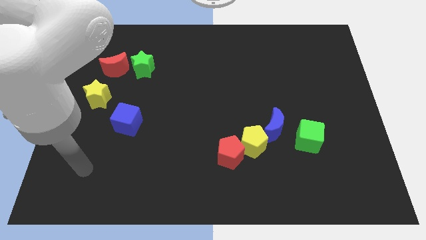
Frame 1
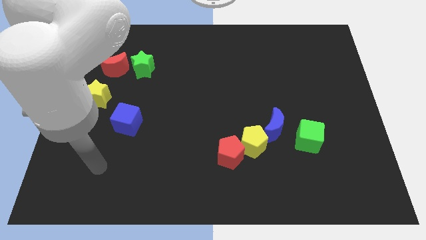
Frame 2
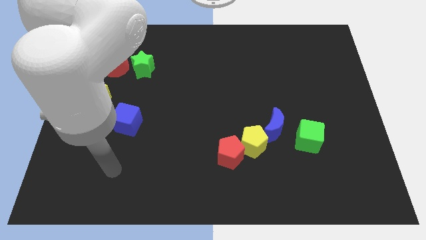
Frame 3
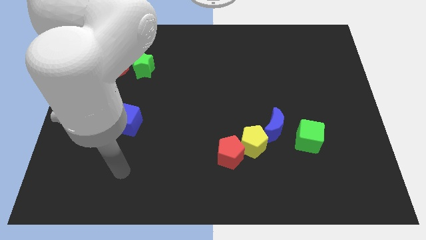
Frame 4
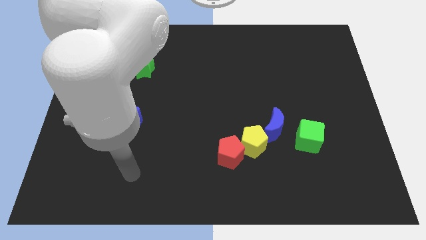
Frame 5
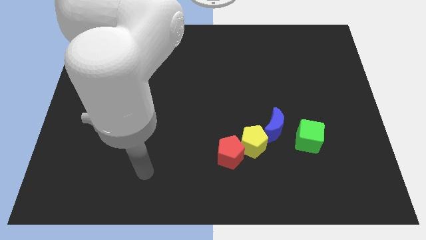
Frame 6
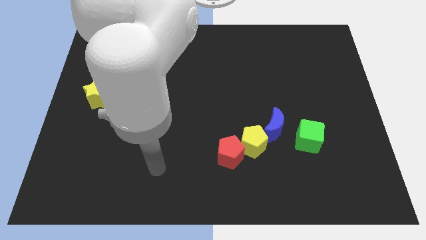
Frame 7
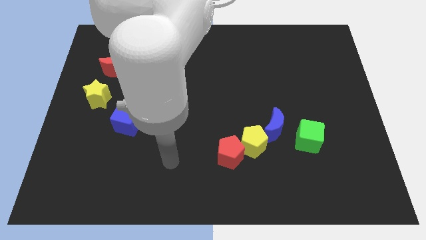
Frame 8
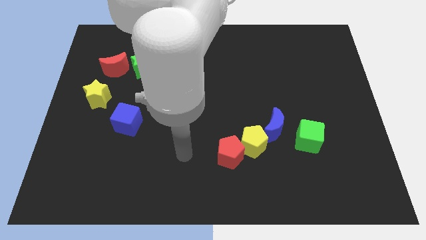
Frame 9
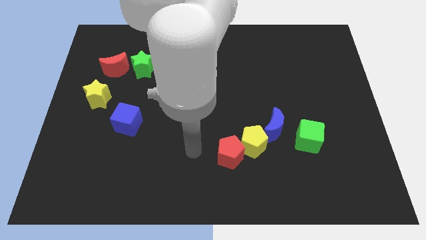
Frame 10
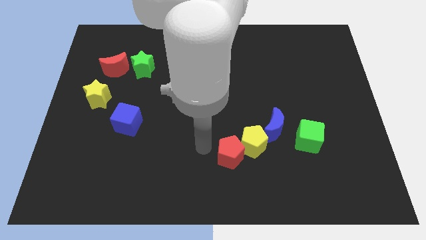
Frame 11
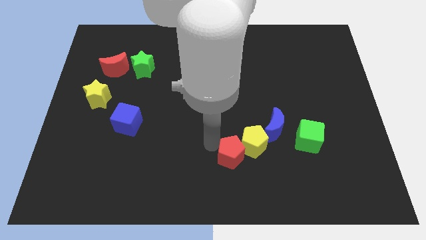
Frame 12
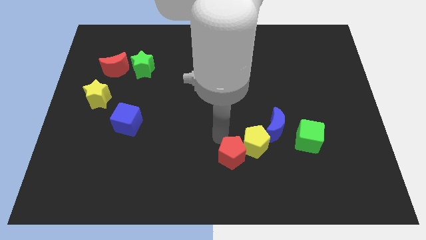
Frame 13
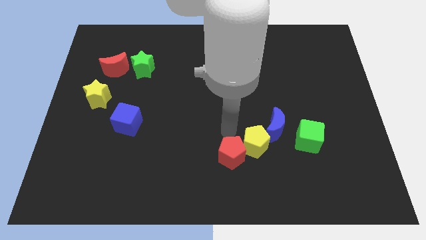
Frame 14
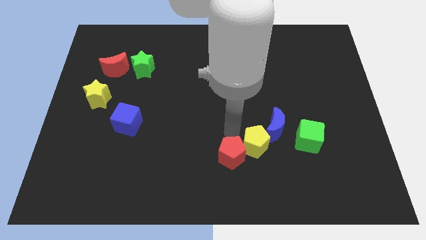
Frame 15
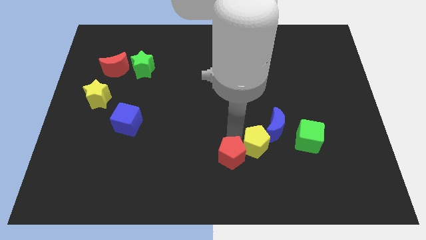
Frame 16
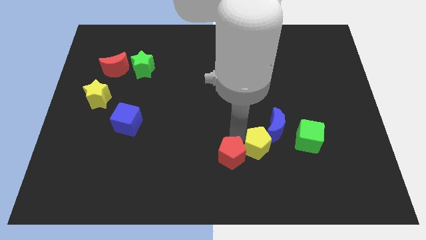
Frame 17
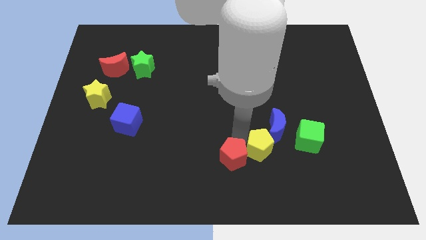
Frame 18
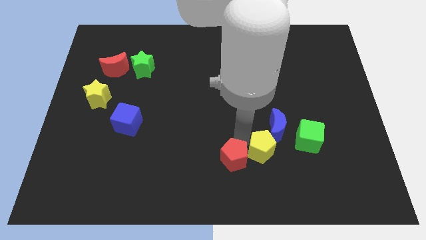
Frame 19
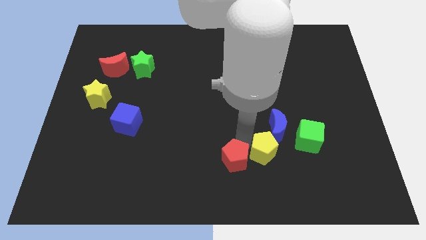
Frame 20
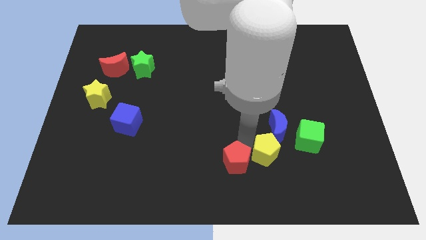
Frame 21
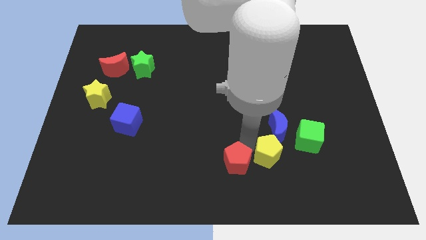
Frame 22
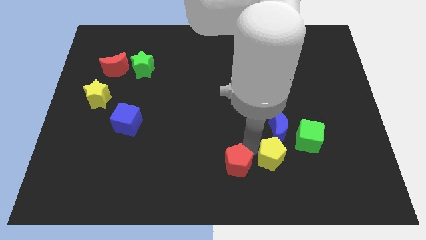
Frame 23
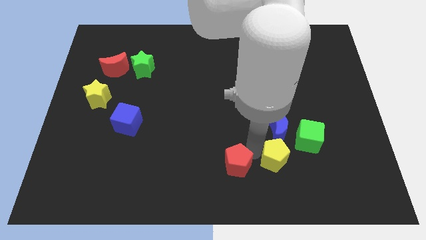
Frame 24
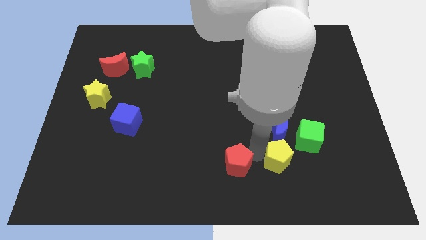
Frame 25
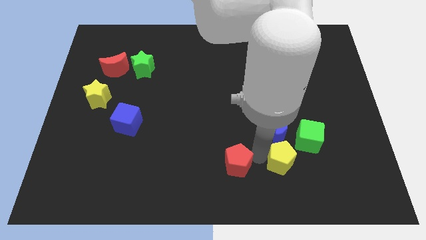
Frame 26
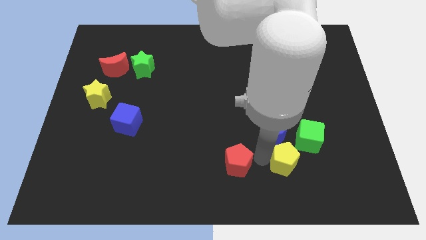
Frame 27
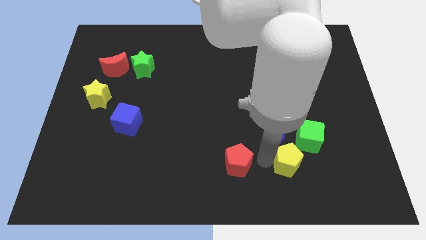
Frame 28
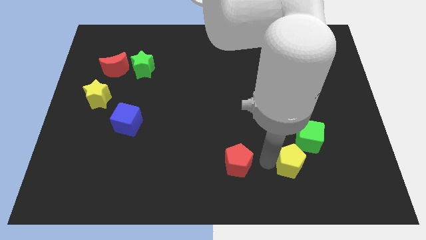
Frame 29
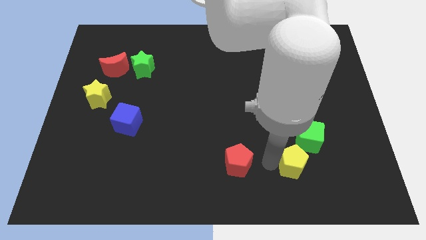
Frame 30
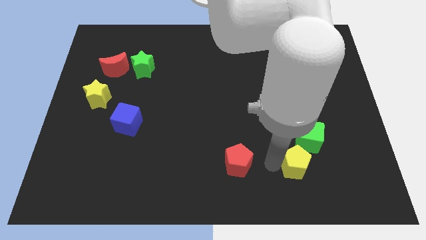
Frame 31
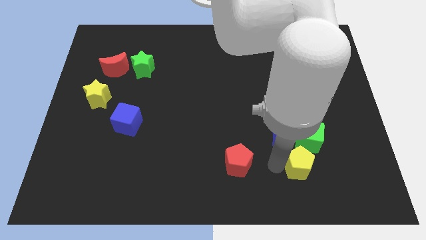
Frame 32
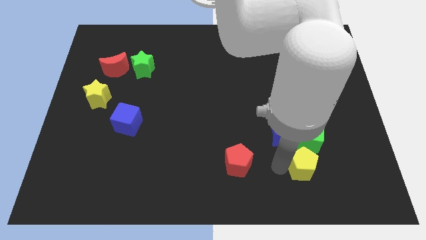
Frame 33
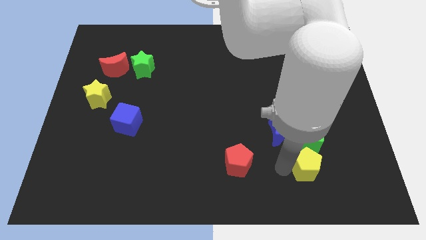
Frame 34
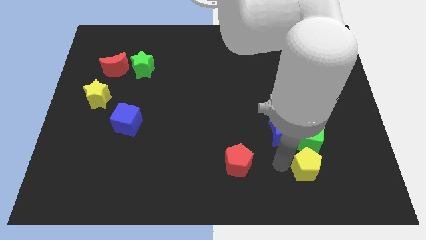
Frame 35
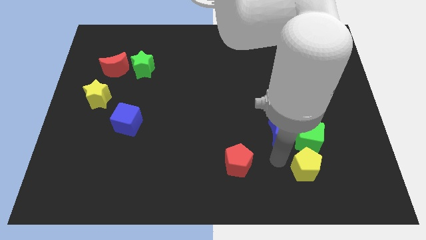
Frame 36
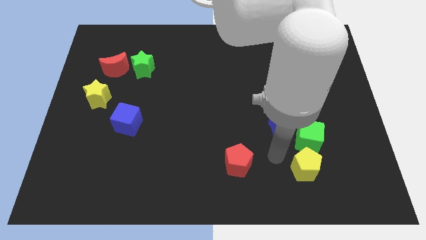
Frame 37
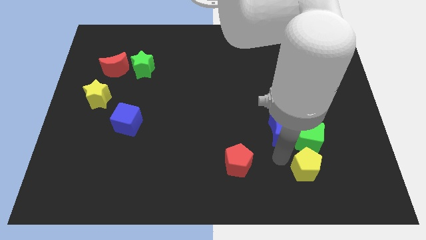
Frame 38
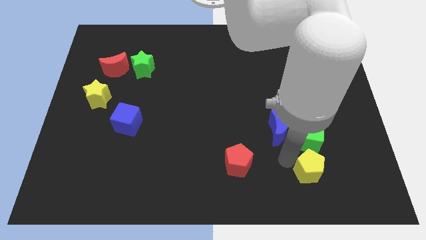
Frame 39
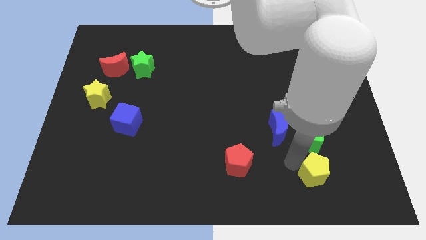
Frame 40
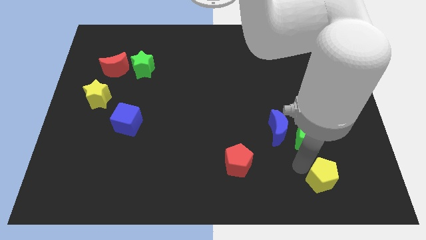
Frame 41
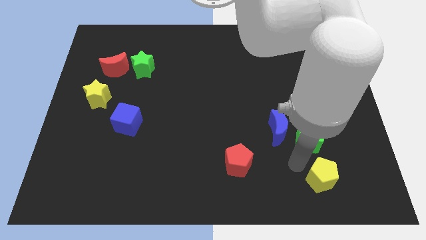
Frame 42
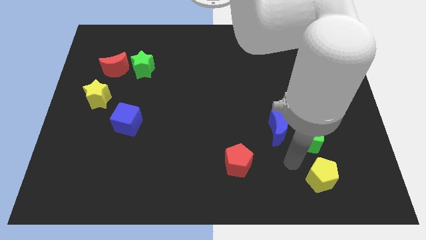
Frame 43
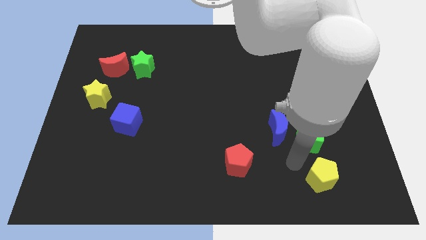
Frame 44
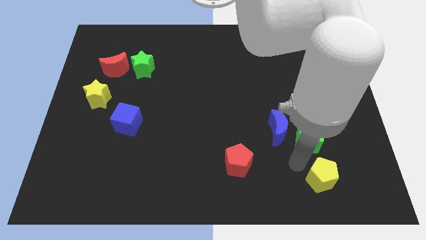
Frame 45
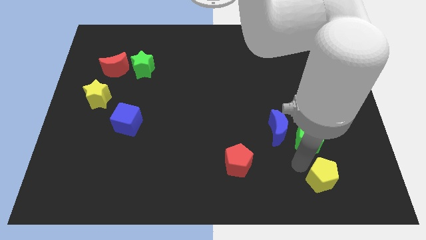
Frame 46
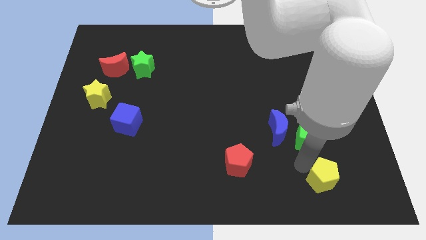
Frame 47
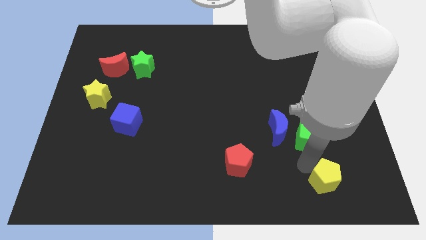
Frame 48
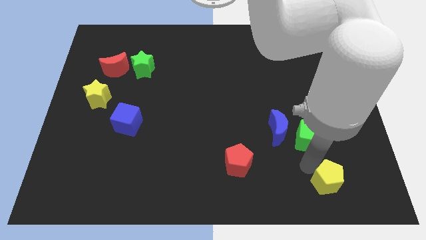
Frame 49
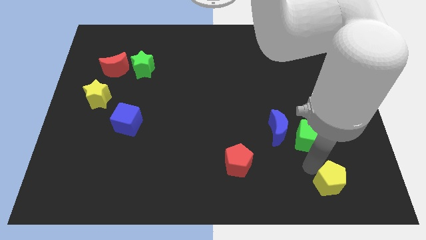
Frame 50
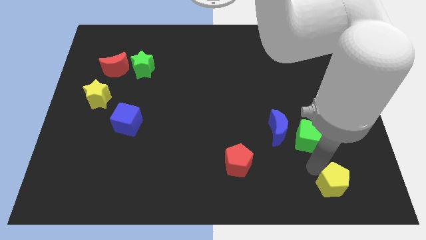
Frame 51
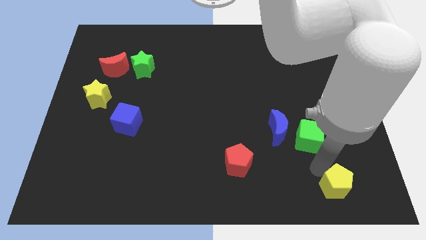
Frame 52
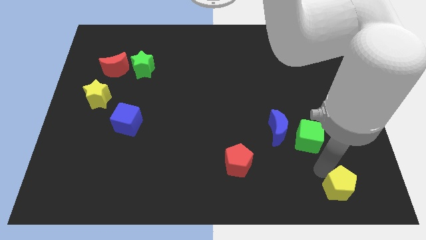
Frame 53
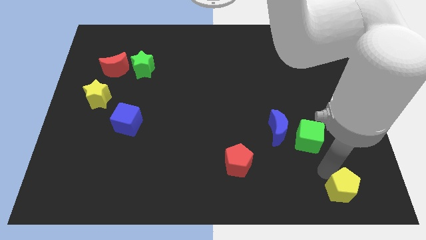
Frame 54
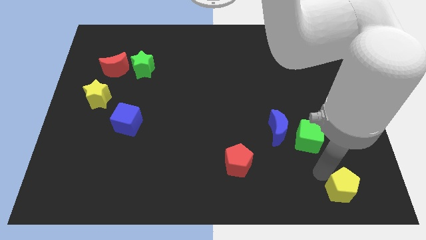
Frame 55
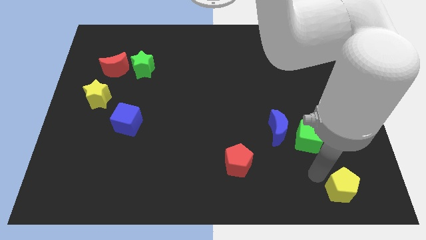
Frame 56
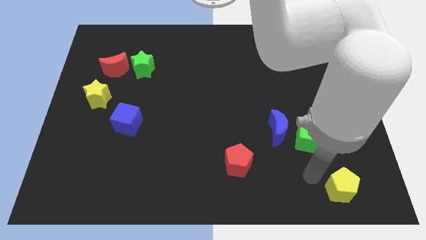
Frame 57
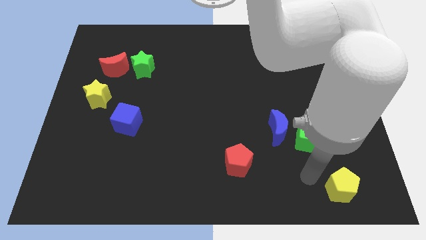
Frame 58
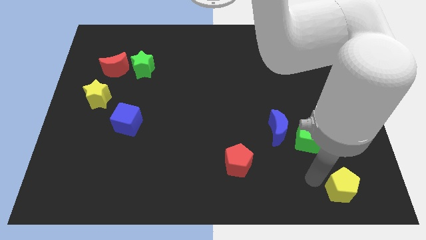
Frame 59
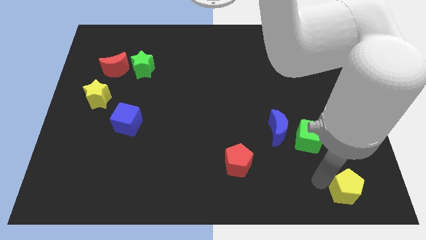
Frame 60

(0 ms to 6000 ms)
move the yellow pentagon to the bottom right of the board
